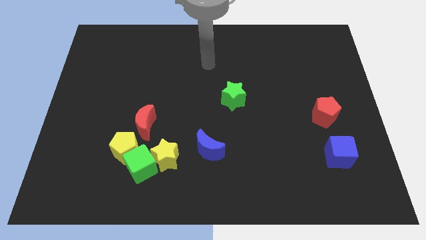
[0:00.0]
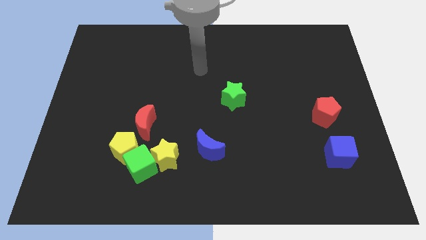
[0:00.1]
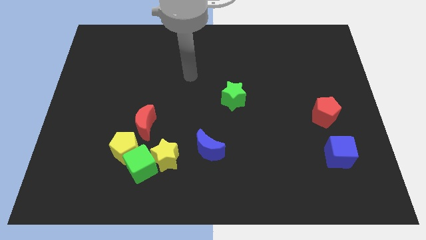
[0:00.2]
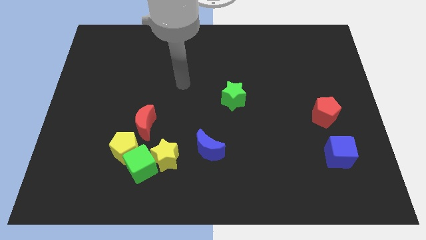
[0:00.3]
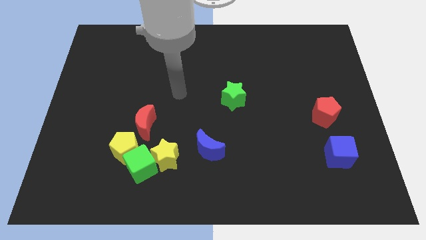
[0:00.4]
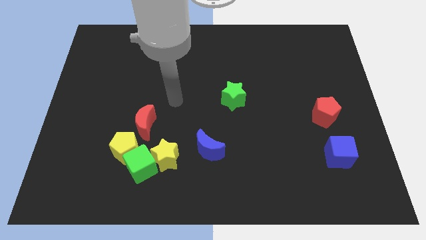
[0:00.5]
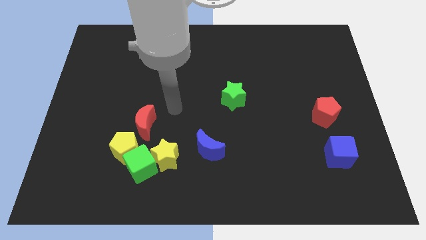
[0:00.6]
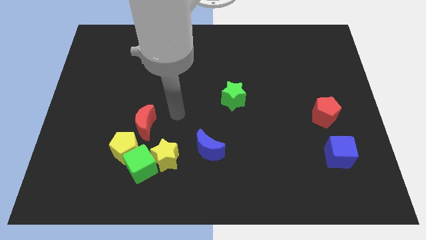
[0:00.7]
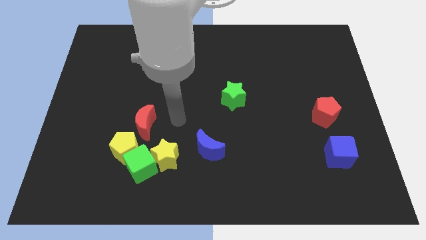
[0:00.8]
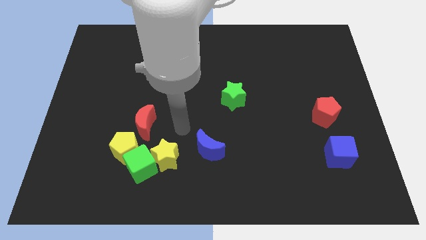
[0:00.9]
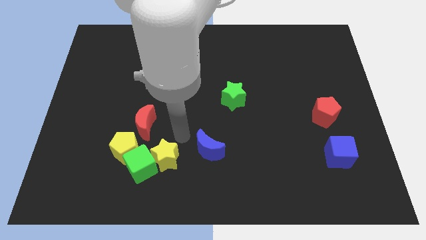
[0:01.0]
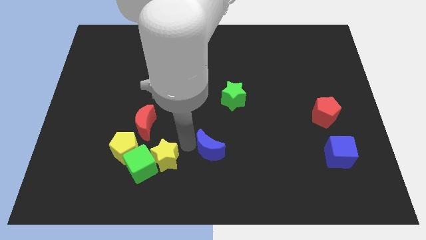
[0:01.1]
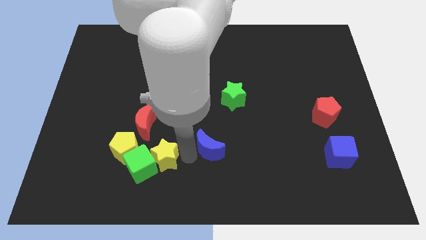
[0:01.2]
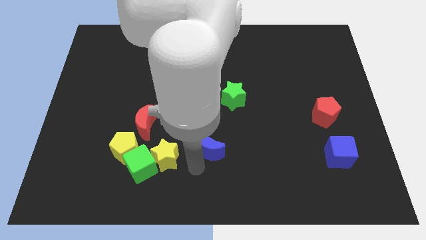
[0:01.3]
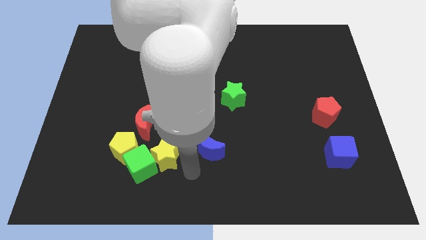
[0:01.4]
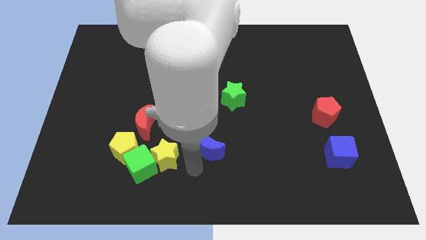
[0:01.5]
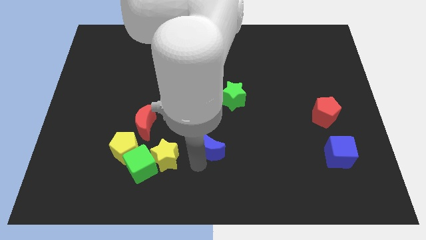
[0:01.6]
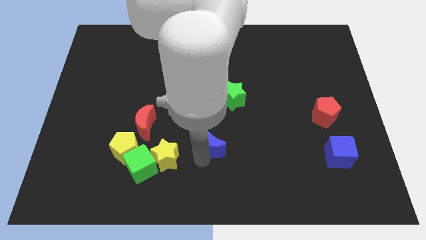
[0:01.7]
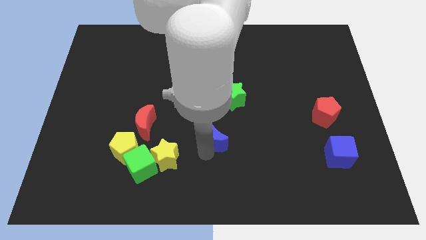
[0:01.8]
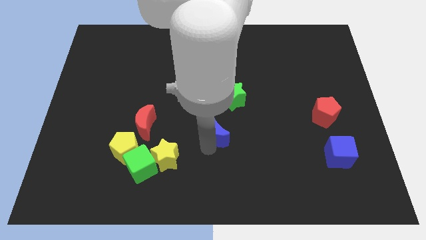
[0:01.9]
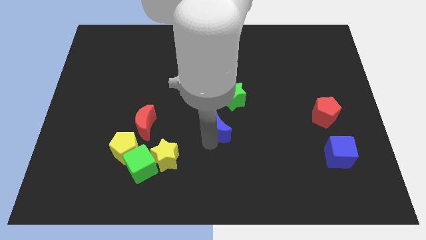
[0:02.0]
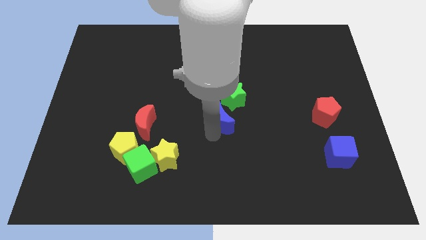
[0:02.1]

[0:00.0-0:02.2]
push the blue moon diagonally up and right a little

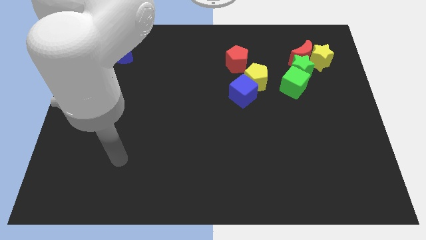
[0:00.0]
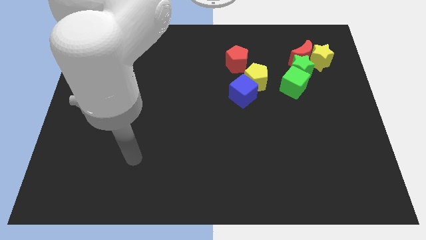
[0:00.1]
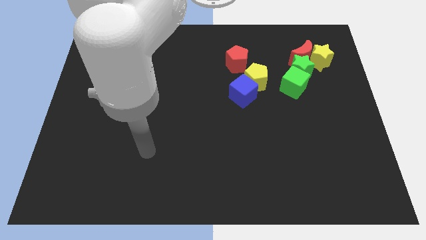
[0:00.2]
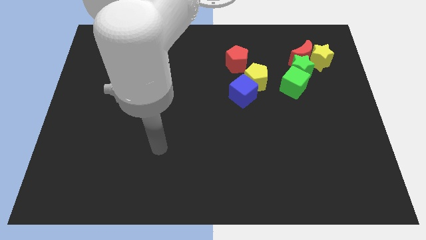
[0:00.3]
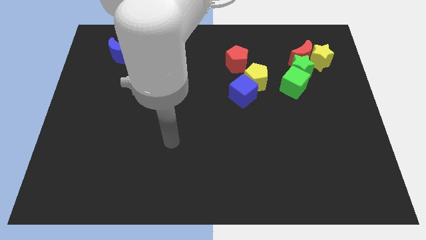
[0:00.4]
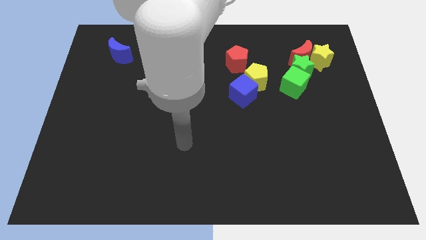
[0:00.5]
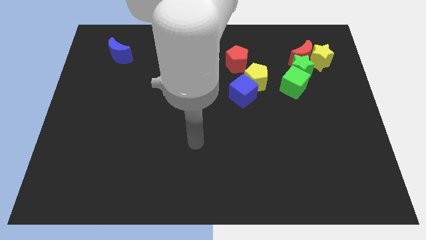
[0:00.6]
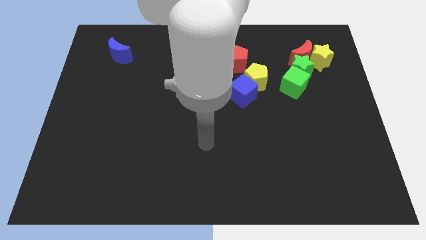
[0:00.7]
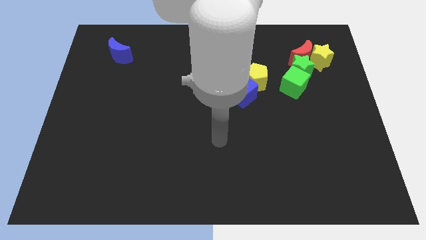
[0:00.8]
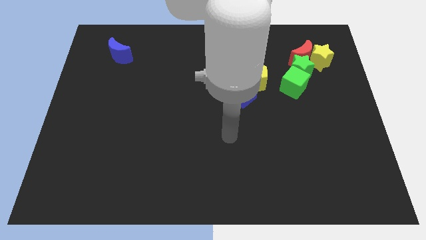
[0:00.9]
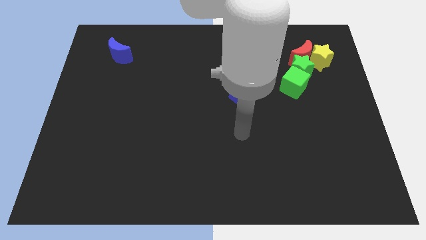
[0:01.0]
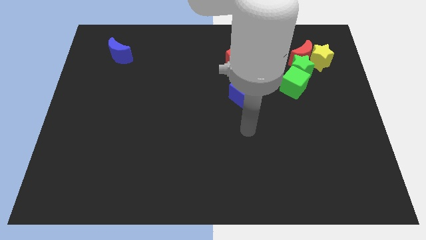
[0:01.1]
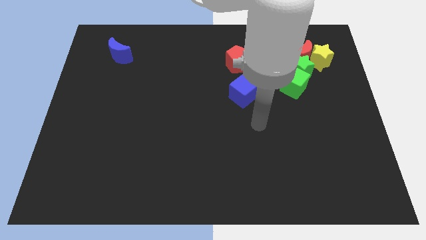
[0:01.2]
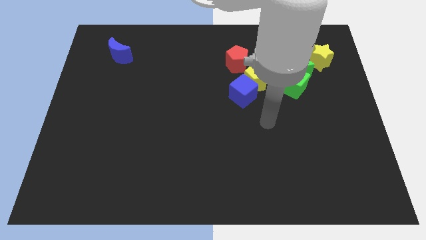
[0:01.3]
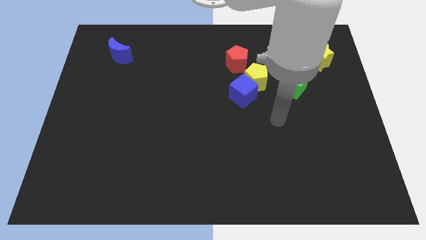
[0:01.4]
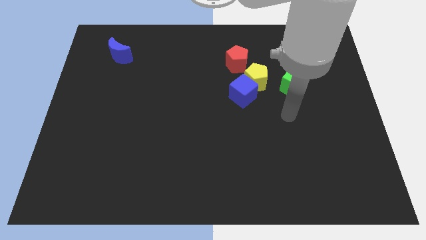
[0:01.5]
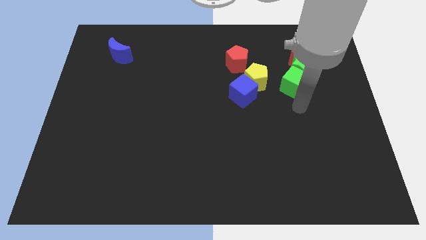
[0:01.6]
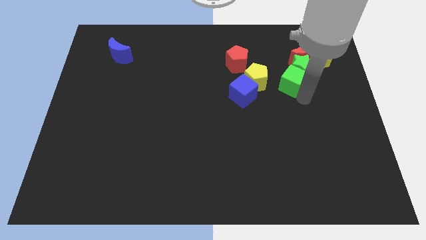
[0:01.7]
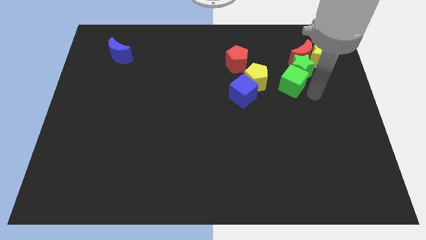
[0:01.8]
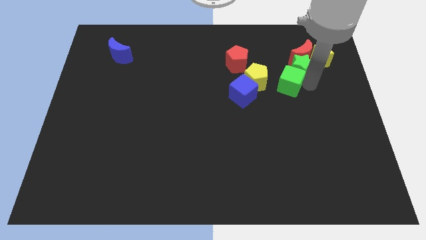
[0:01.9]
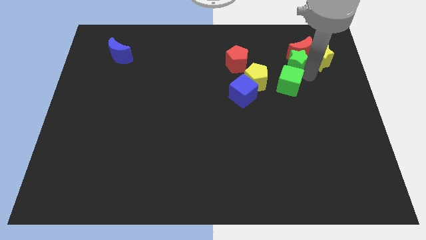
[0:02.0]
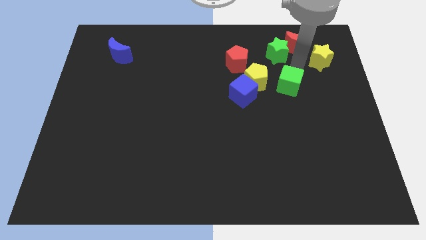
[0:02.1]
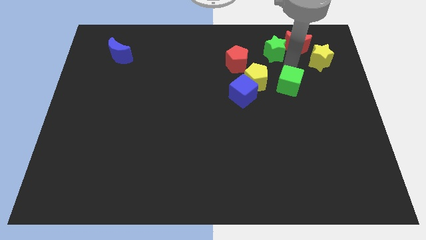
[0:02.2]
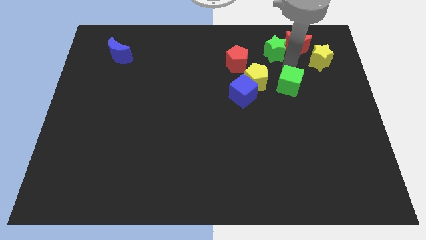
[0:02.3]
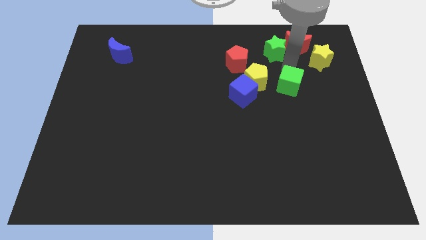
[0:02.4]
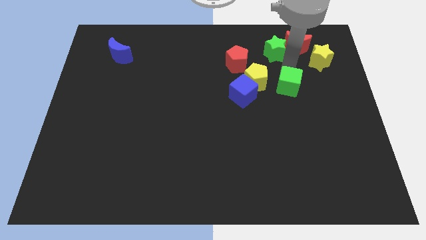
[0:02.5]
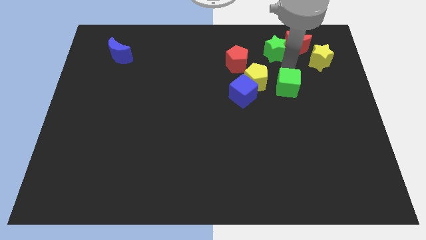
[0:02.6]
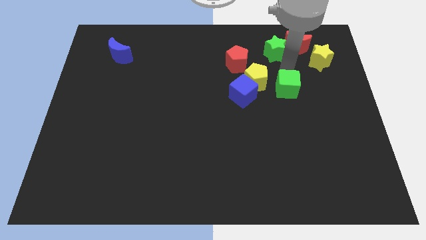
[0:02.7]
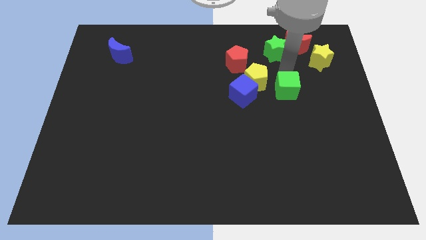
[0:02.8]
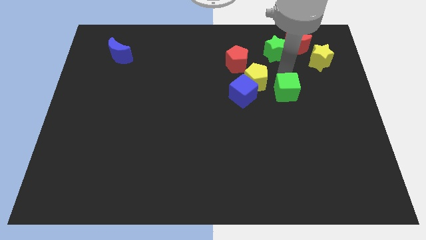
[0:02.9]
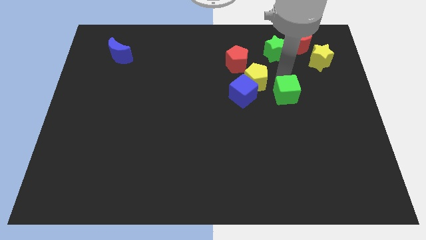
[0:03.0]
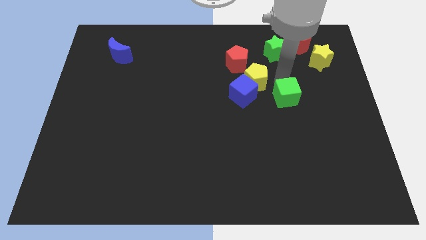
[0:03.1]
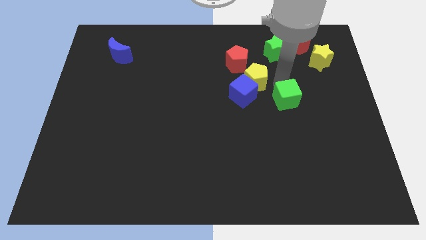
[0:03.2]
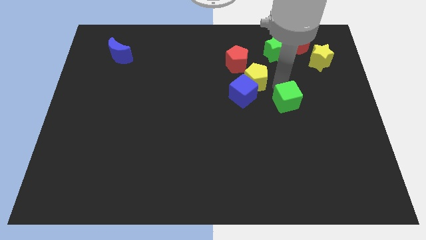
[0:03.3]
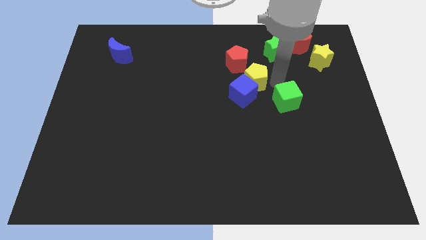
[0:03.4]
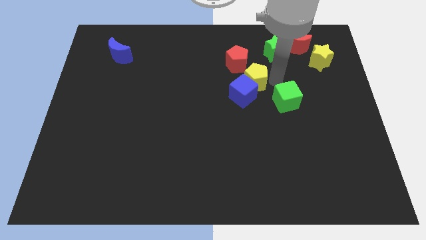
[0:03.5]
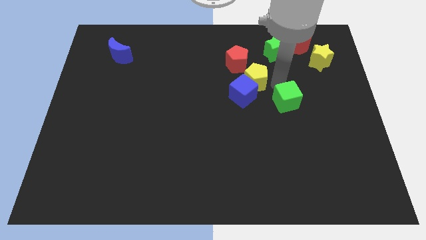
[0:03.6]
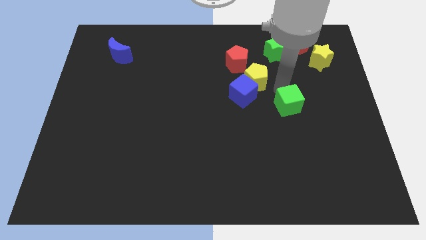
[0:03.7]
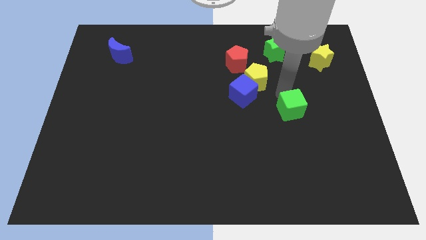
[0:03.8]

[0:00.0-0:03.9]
slide the green cube downwards a little bit

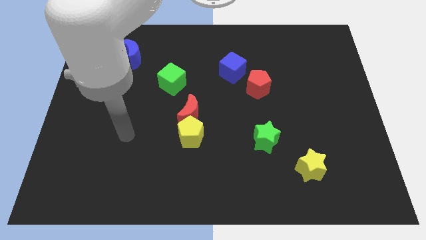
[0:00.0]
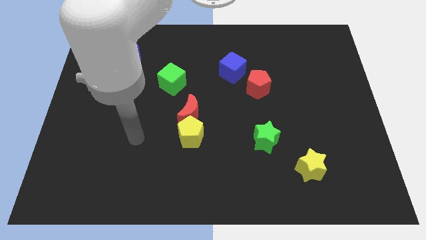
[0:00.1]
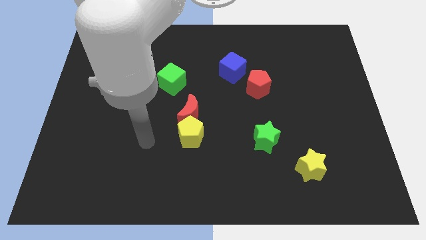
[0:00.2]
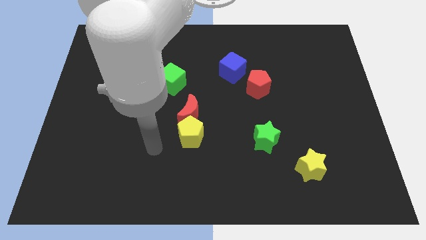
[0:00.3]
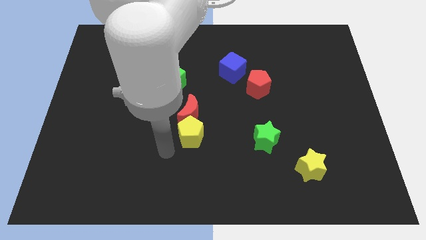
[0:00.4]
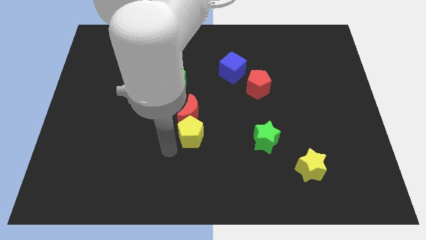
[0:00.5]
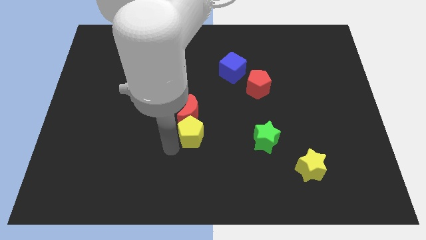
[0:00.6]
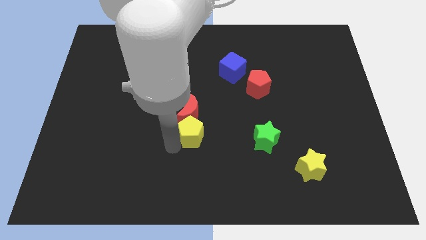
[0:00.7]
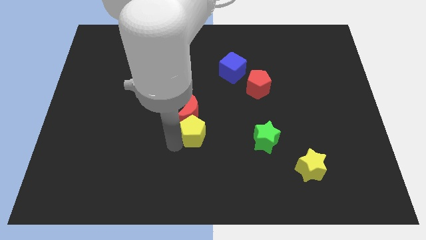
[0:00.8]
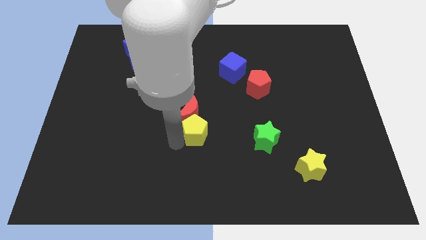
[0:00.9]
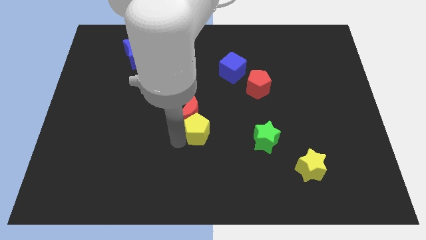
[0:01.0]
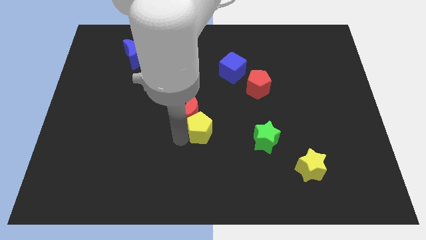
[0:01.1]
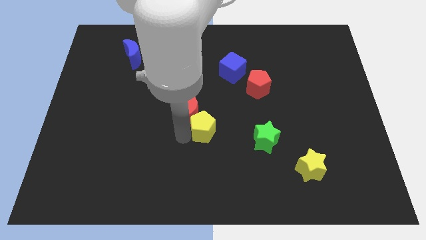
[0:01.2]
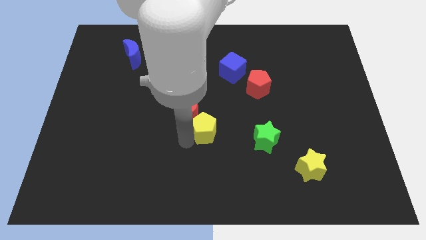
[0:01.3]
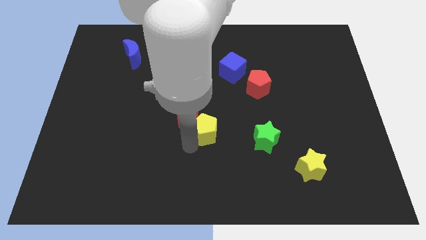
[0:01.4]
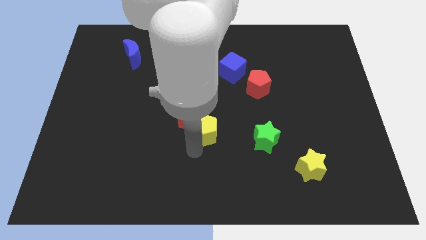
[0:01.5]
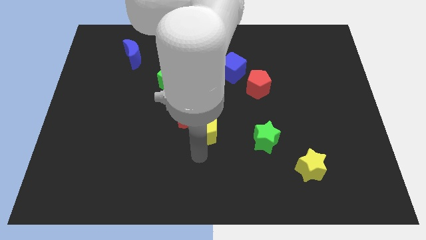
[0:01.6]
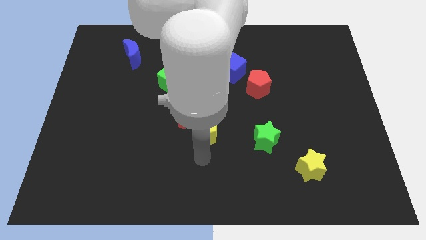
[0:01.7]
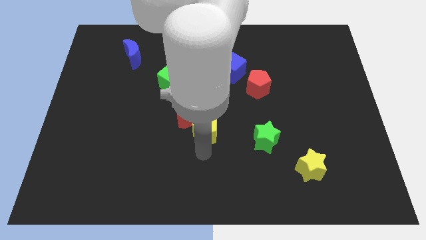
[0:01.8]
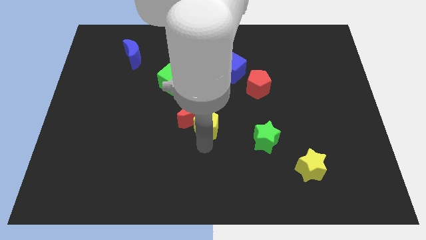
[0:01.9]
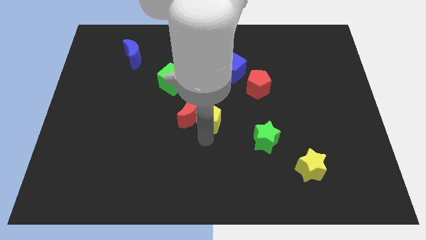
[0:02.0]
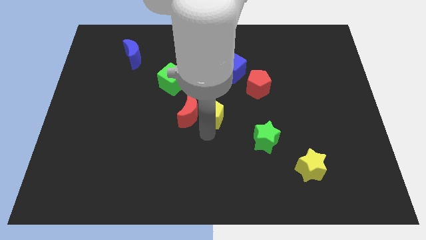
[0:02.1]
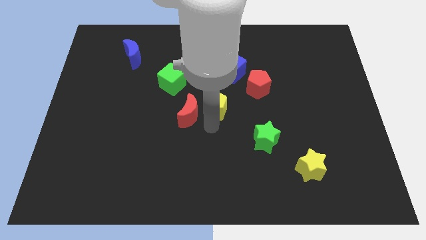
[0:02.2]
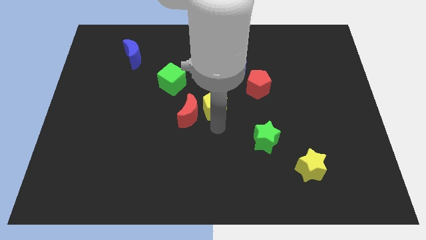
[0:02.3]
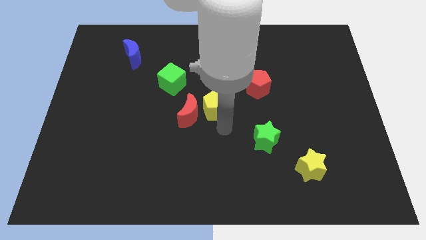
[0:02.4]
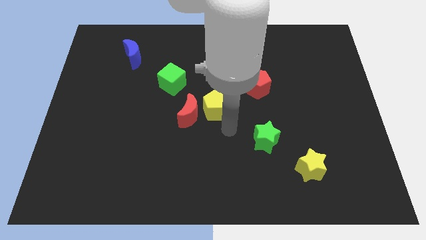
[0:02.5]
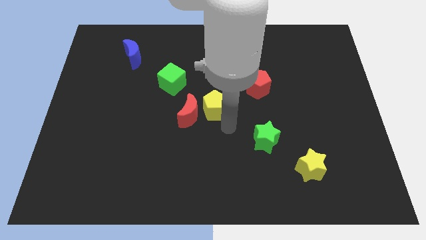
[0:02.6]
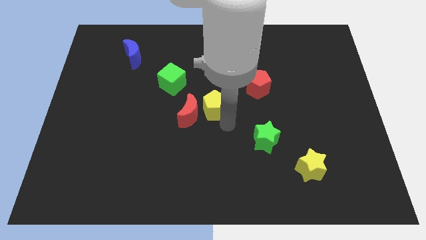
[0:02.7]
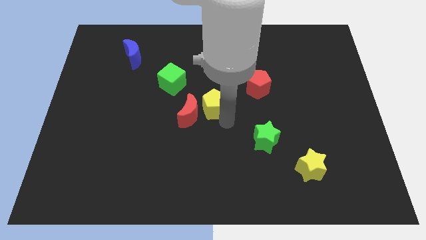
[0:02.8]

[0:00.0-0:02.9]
slide the yellow pentagon upwards somewhat
